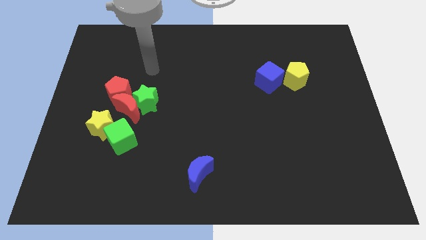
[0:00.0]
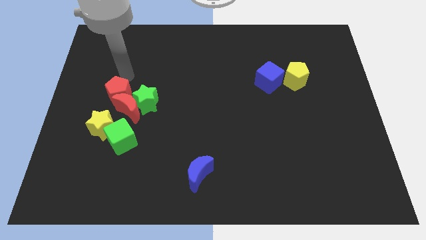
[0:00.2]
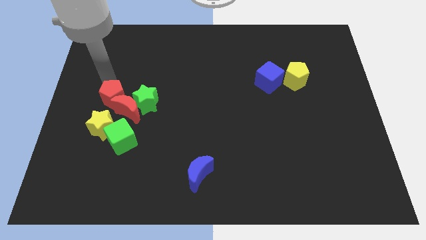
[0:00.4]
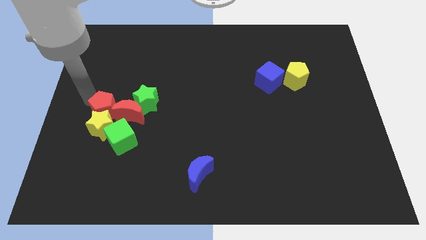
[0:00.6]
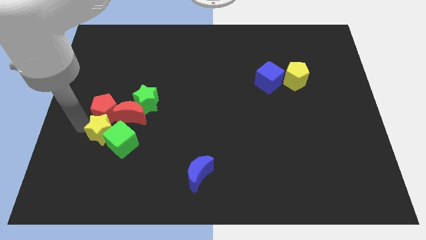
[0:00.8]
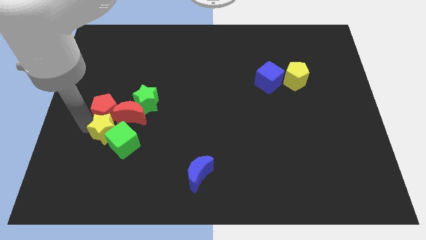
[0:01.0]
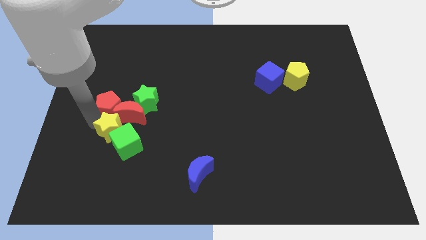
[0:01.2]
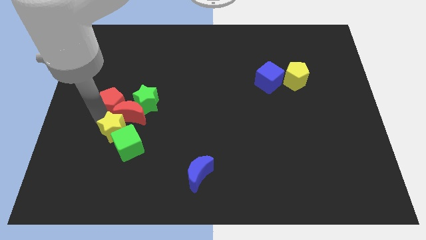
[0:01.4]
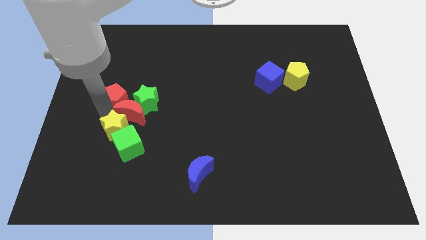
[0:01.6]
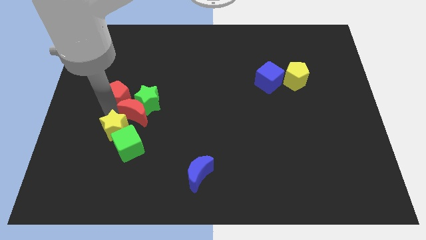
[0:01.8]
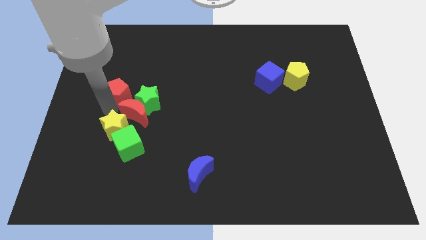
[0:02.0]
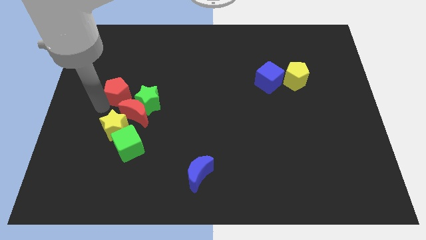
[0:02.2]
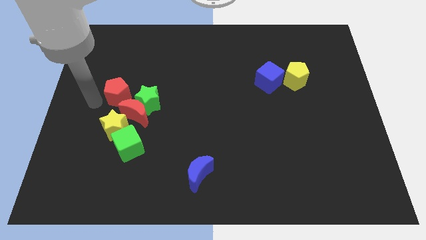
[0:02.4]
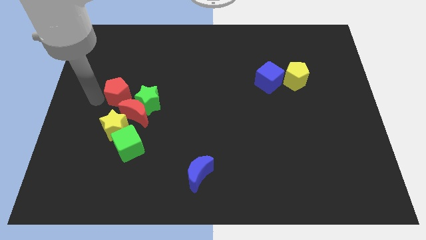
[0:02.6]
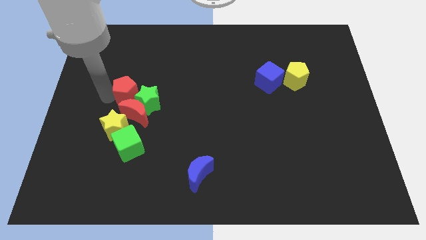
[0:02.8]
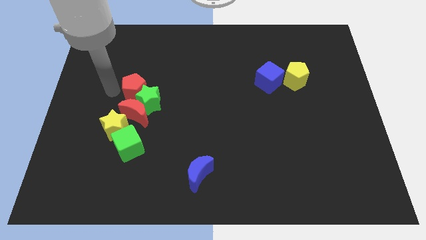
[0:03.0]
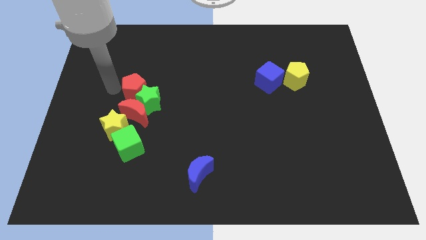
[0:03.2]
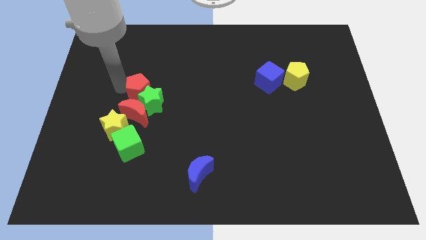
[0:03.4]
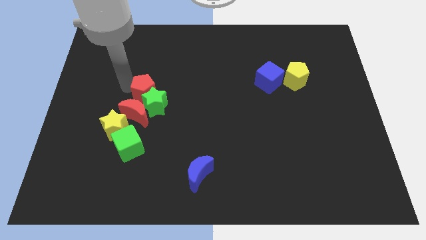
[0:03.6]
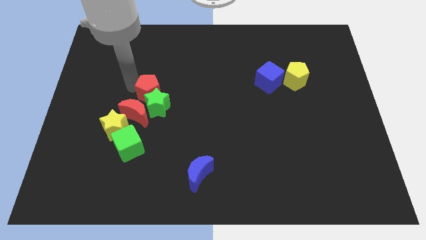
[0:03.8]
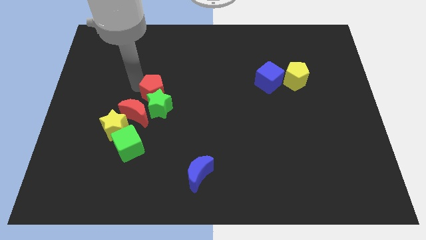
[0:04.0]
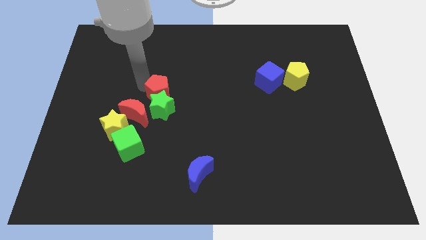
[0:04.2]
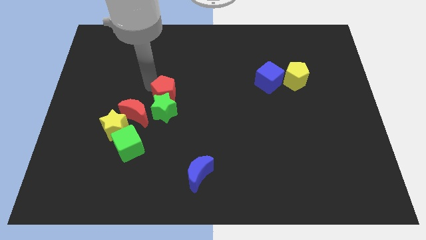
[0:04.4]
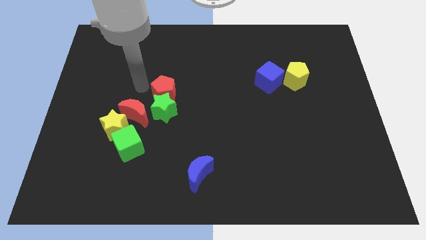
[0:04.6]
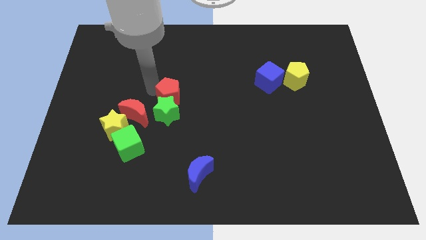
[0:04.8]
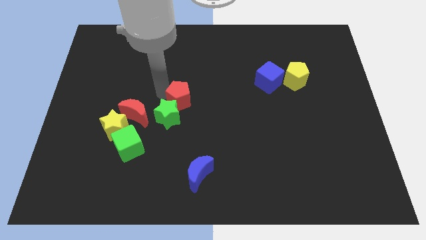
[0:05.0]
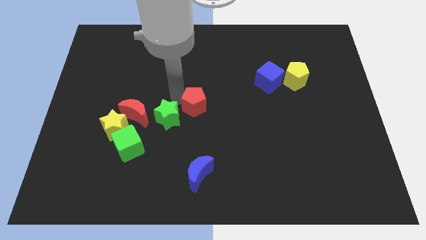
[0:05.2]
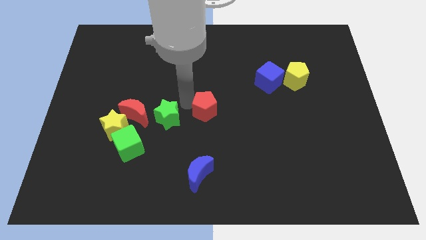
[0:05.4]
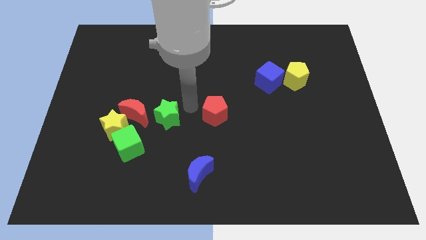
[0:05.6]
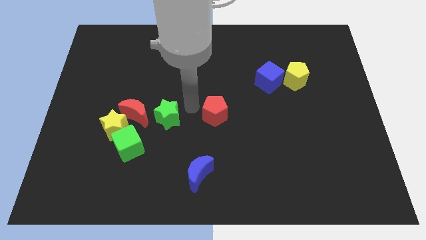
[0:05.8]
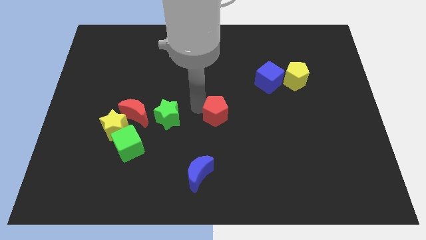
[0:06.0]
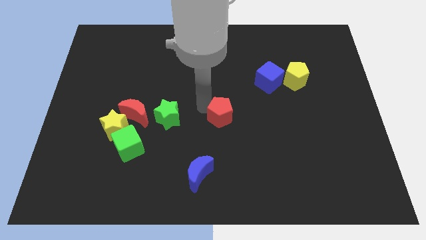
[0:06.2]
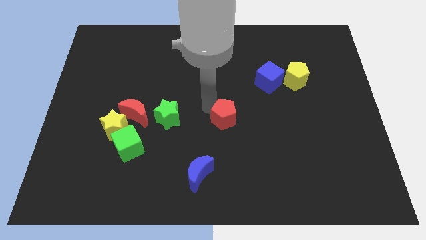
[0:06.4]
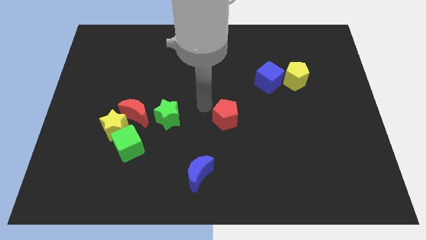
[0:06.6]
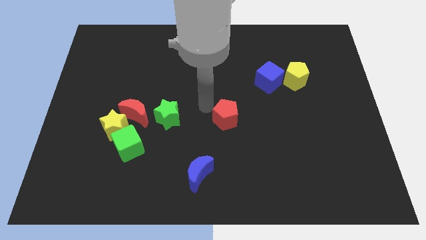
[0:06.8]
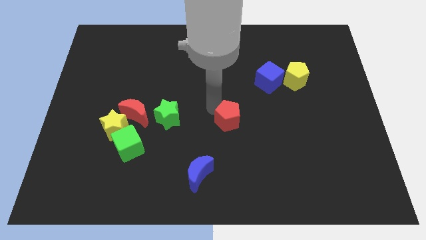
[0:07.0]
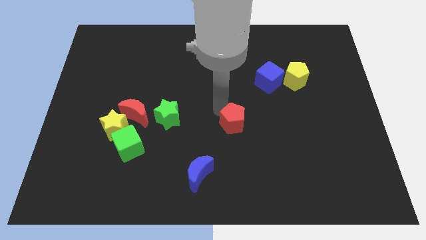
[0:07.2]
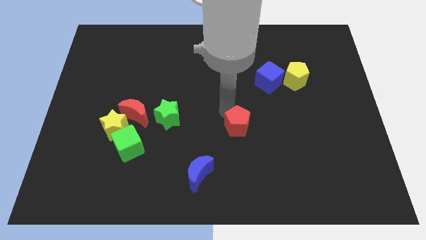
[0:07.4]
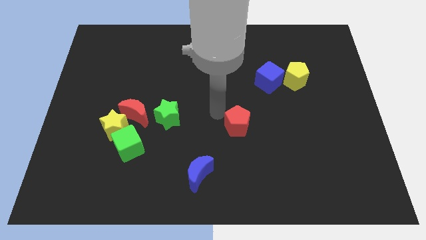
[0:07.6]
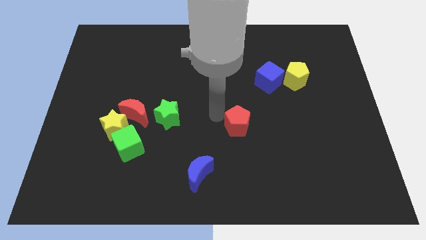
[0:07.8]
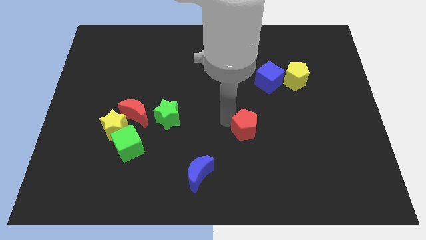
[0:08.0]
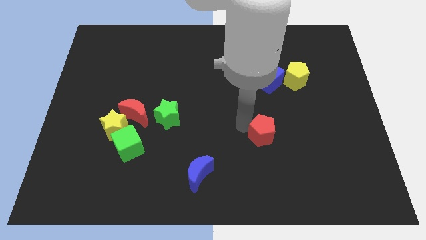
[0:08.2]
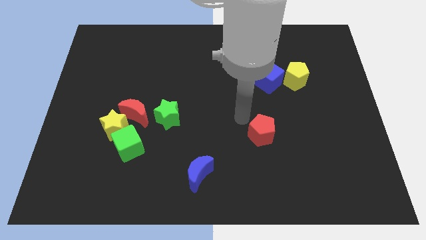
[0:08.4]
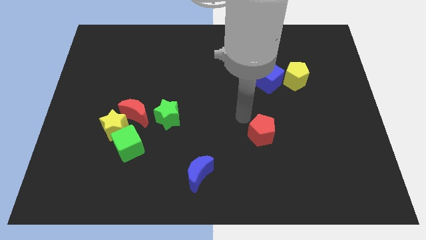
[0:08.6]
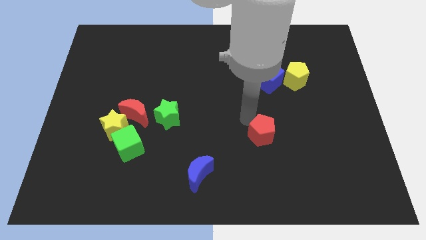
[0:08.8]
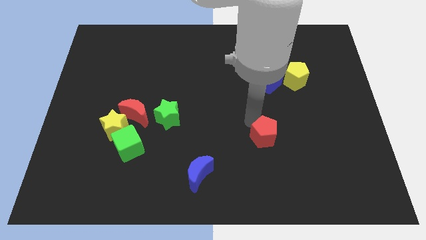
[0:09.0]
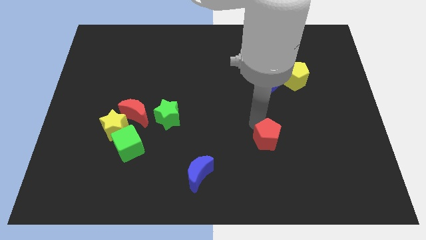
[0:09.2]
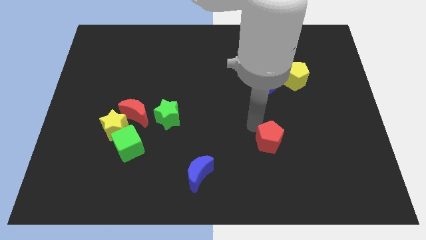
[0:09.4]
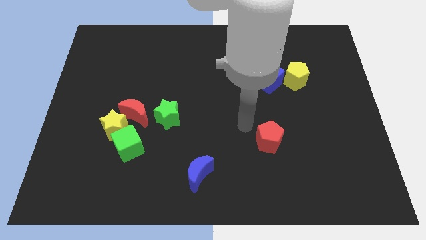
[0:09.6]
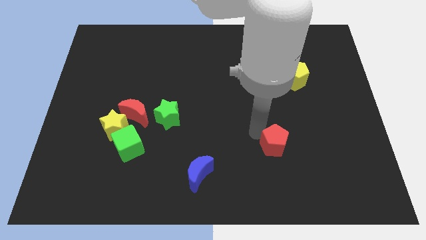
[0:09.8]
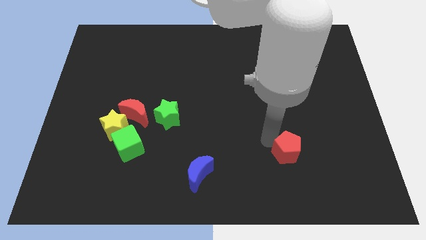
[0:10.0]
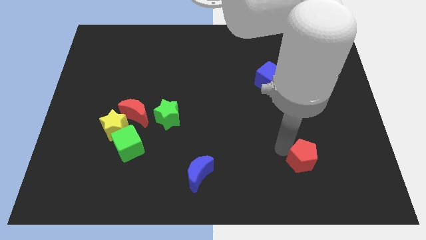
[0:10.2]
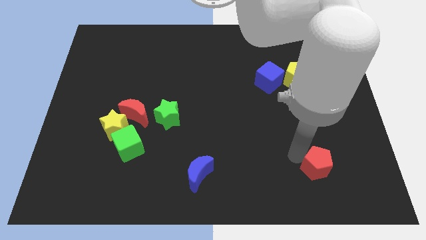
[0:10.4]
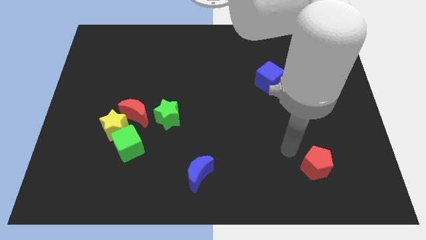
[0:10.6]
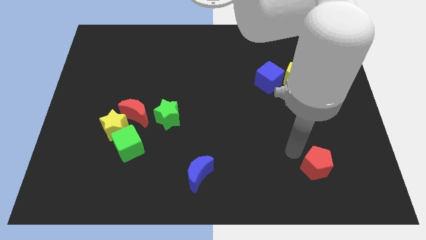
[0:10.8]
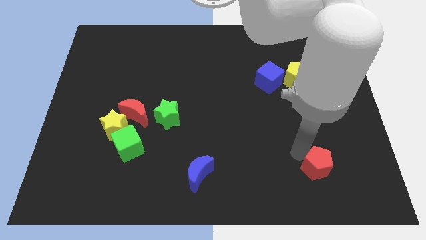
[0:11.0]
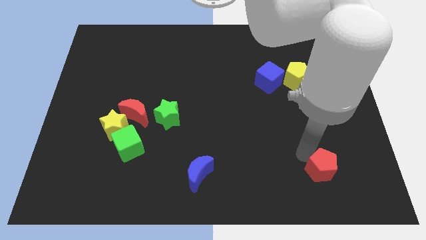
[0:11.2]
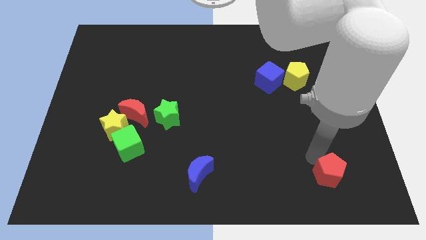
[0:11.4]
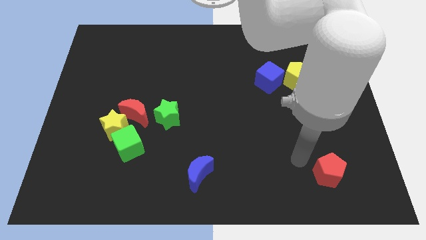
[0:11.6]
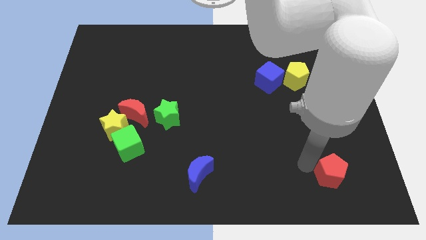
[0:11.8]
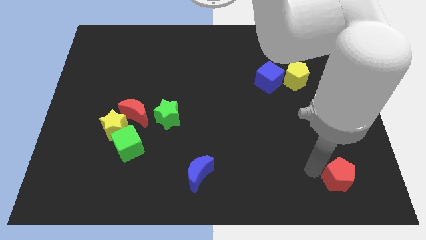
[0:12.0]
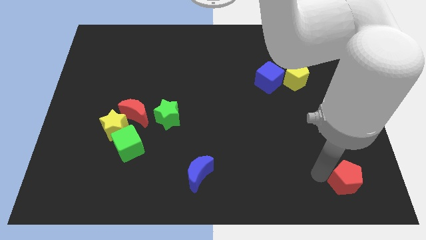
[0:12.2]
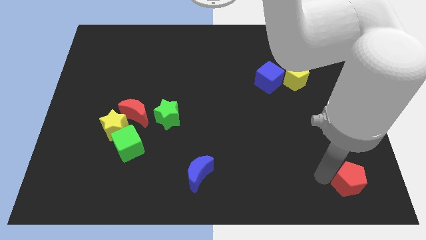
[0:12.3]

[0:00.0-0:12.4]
move the red pentagon to the bottom right corner

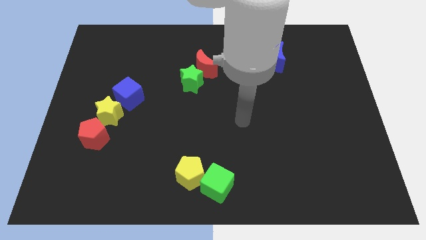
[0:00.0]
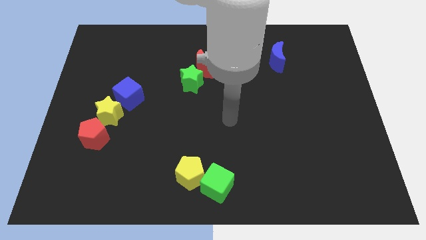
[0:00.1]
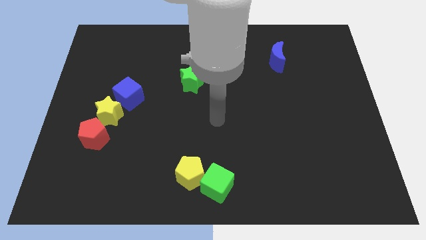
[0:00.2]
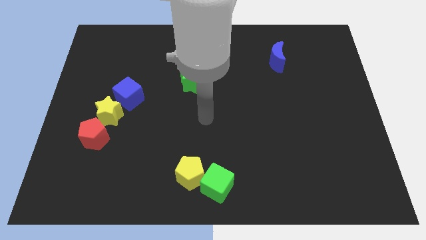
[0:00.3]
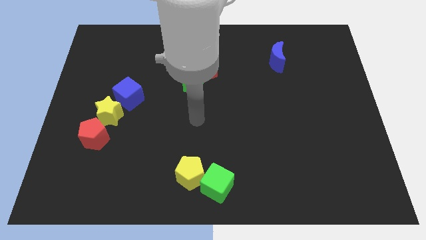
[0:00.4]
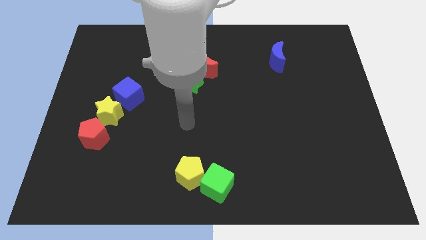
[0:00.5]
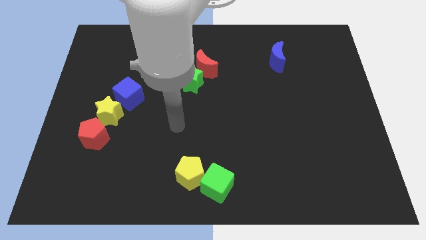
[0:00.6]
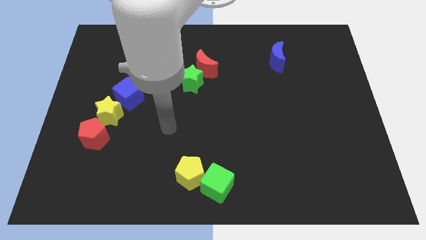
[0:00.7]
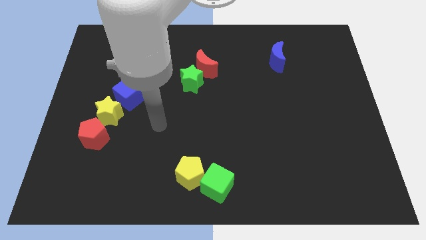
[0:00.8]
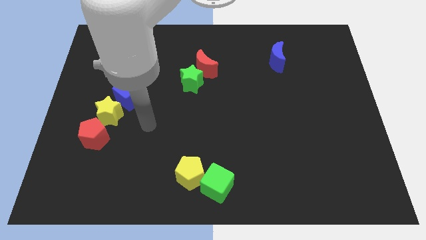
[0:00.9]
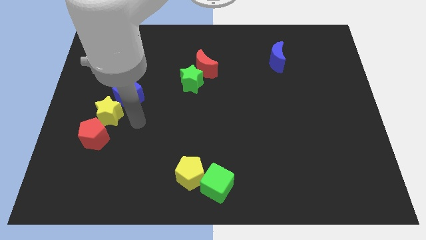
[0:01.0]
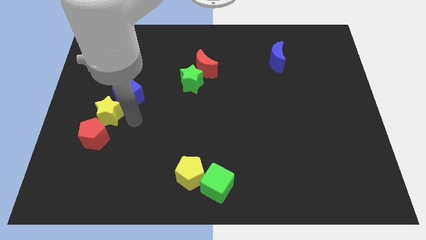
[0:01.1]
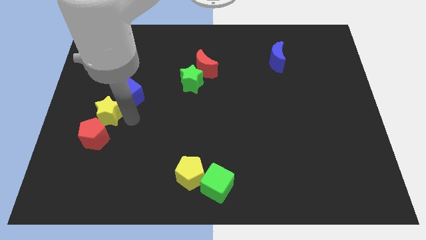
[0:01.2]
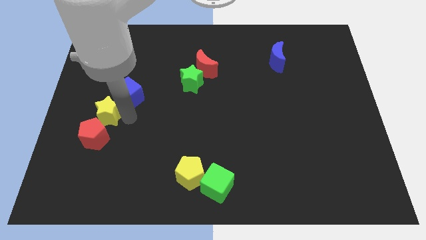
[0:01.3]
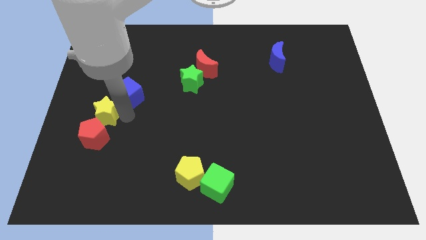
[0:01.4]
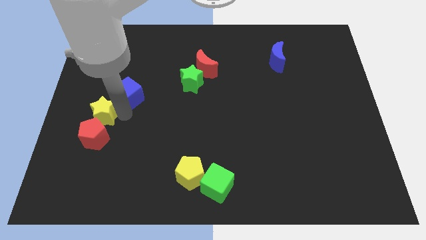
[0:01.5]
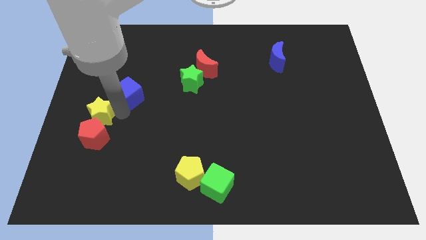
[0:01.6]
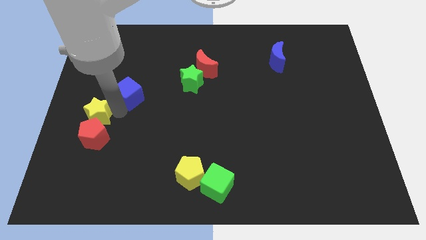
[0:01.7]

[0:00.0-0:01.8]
slide the yellow star to the left side of the board
